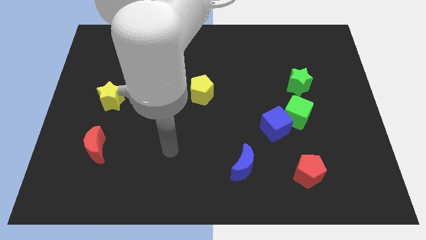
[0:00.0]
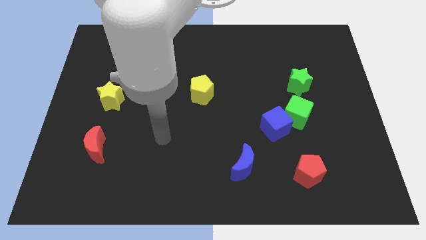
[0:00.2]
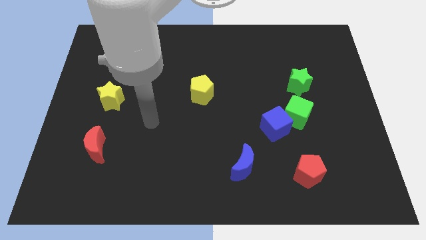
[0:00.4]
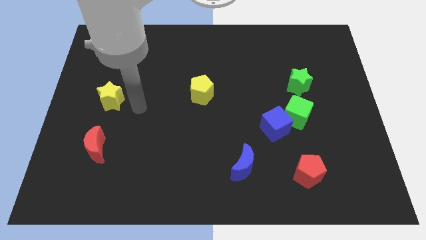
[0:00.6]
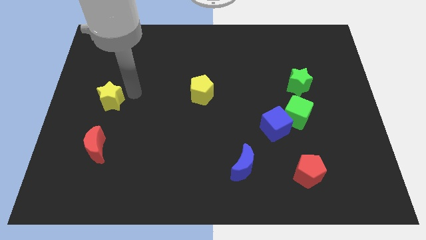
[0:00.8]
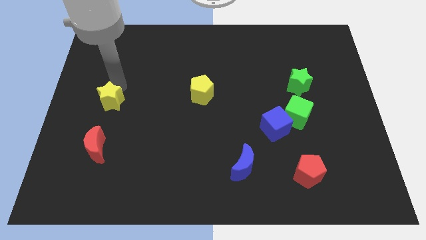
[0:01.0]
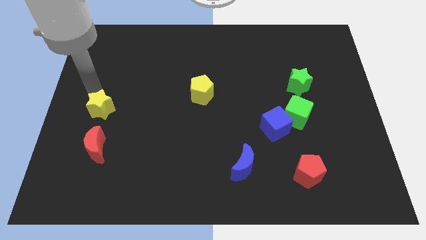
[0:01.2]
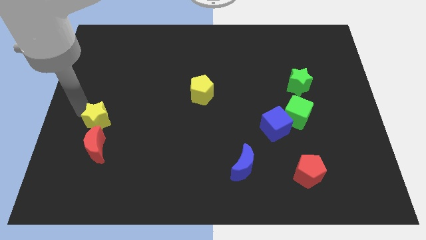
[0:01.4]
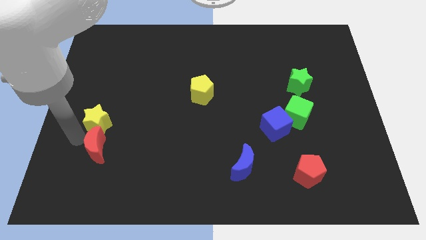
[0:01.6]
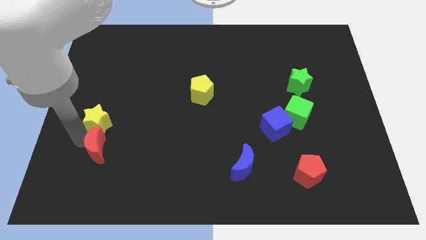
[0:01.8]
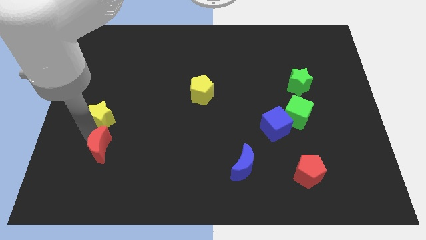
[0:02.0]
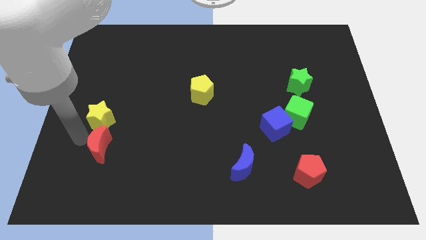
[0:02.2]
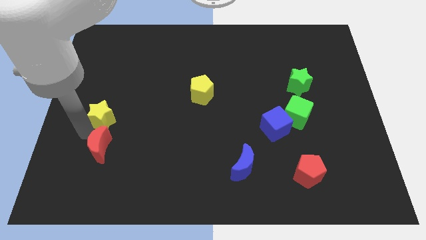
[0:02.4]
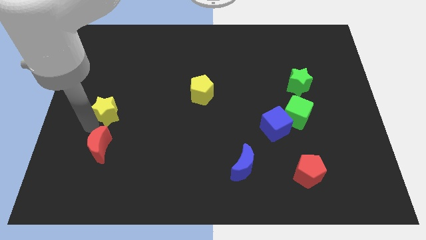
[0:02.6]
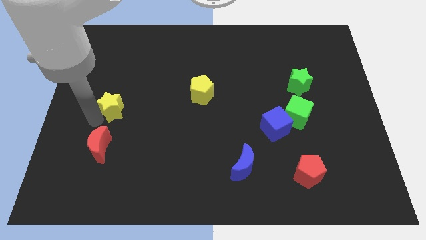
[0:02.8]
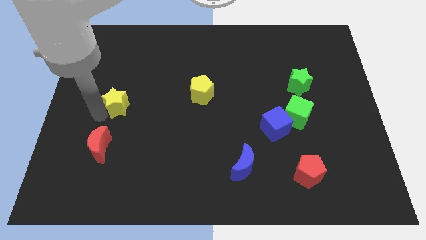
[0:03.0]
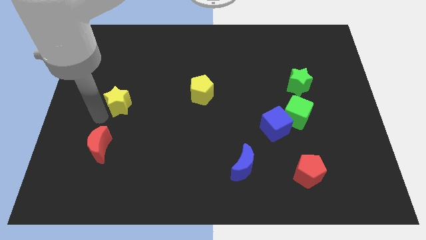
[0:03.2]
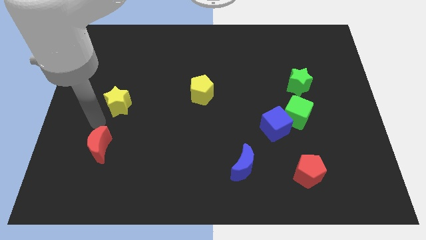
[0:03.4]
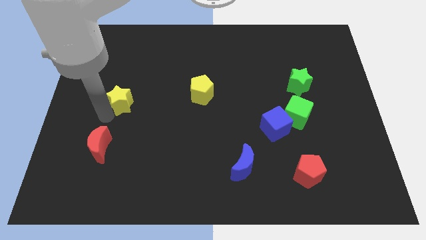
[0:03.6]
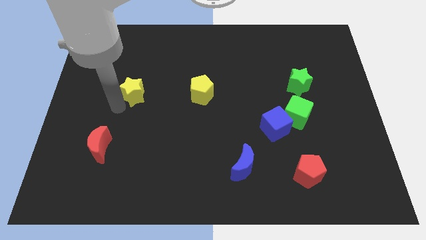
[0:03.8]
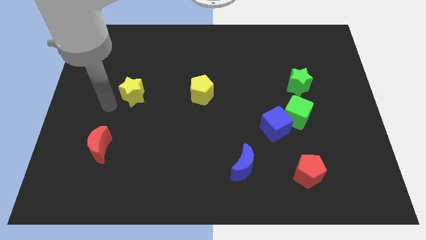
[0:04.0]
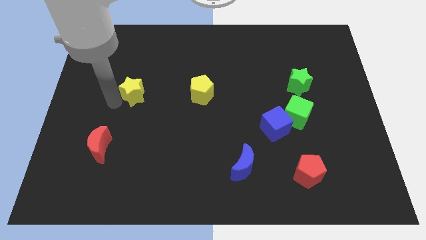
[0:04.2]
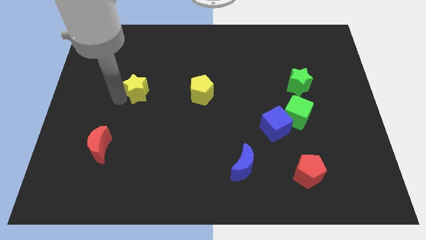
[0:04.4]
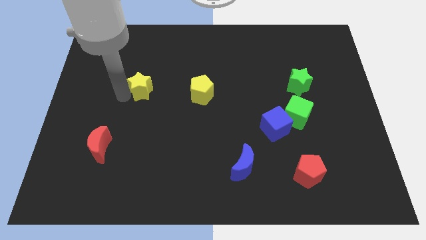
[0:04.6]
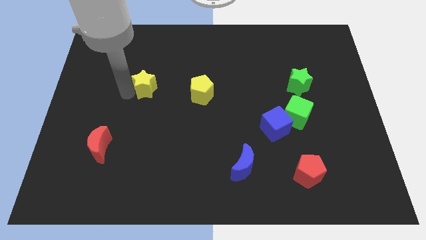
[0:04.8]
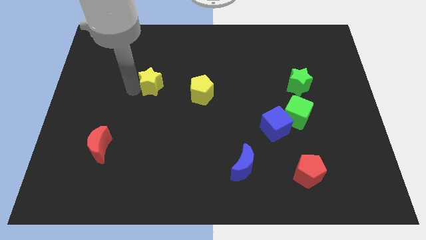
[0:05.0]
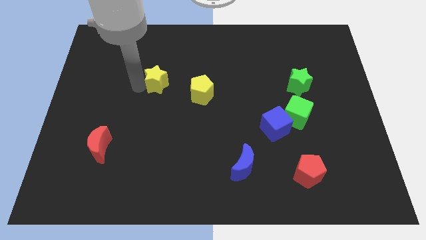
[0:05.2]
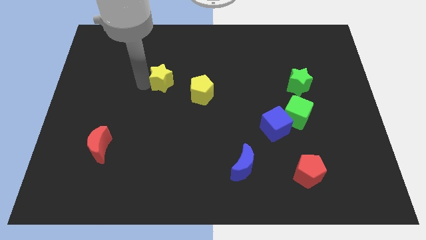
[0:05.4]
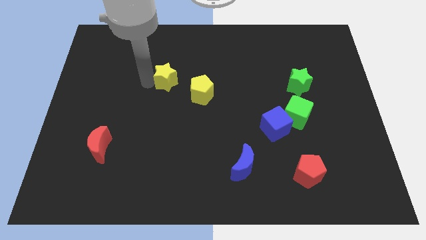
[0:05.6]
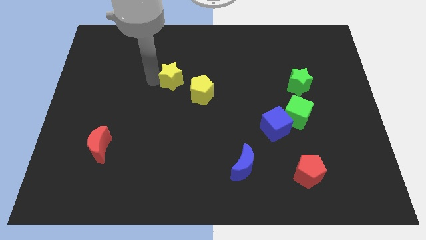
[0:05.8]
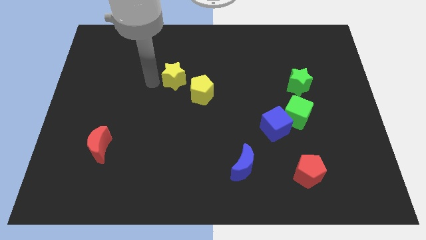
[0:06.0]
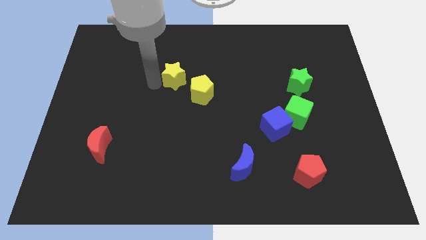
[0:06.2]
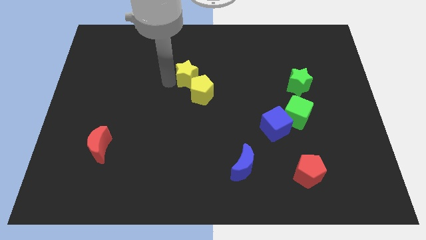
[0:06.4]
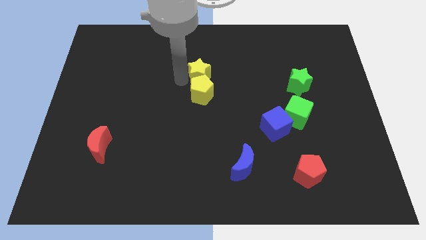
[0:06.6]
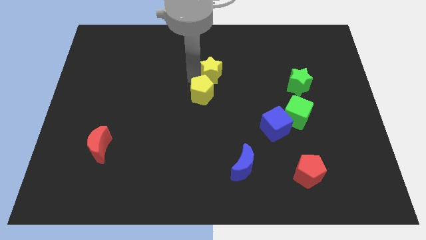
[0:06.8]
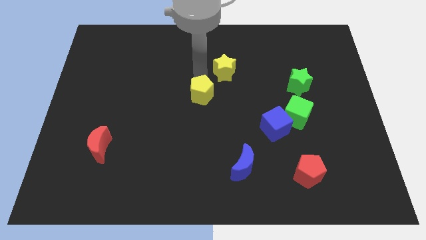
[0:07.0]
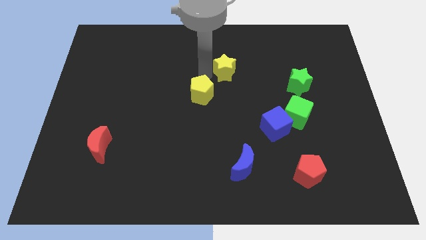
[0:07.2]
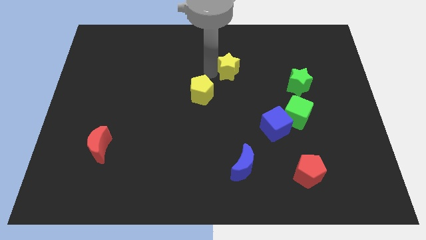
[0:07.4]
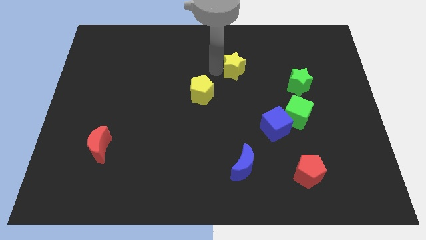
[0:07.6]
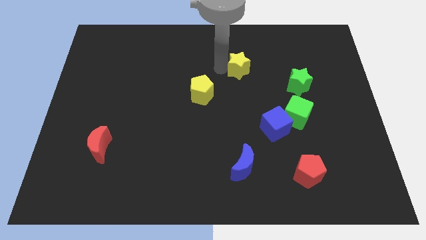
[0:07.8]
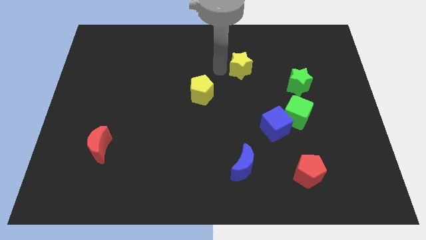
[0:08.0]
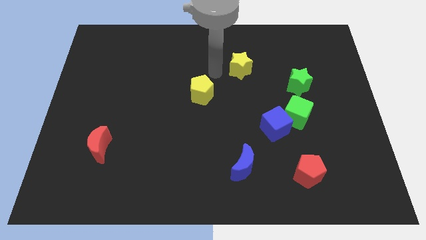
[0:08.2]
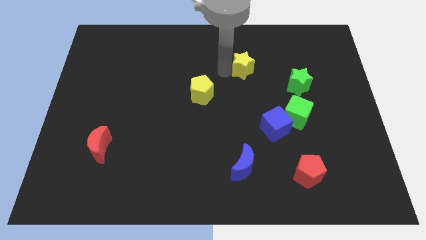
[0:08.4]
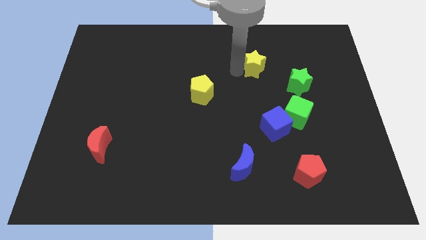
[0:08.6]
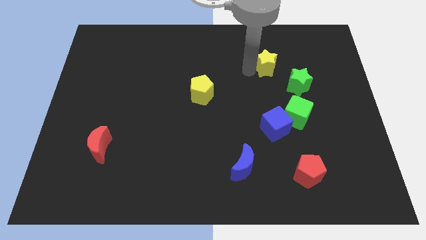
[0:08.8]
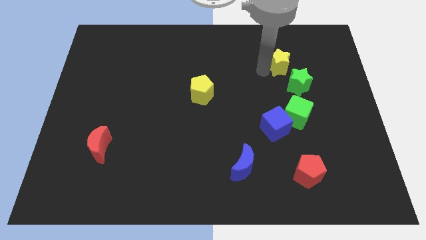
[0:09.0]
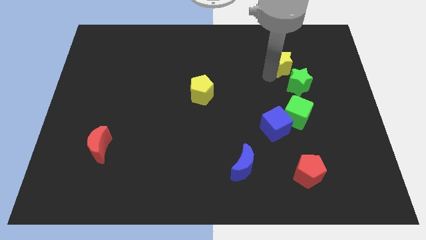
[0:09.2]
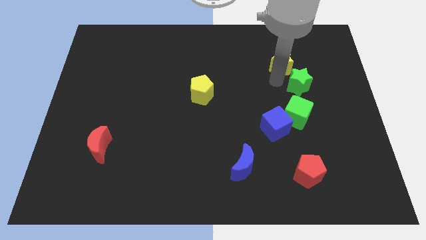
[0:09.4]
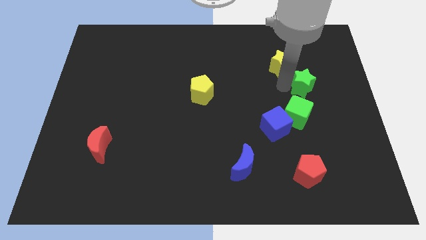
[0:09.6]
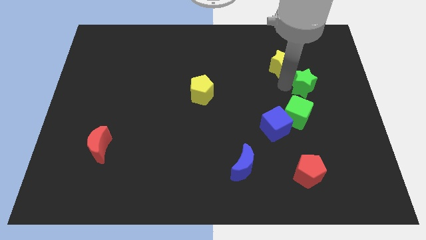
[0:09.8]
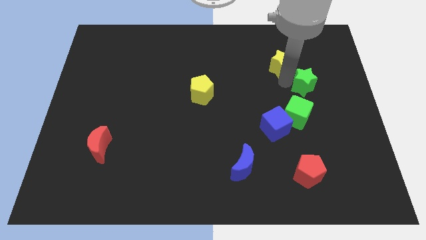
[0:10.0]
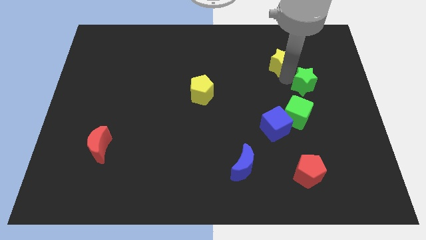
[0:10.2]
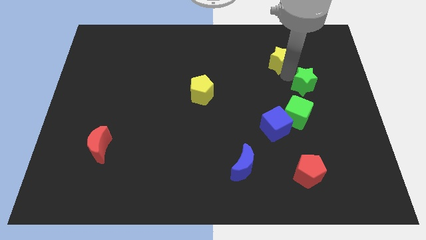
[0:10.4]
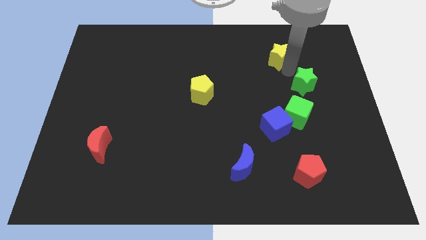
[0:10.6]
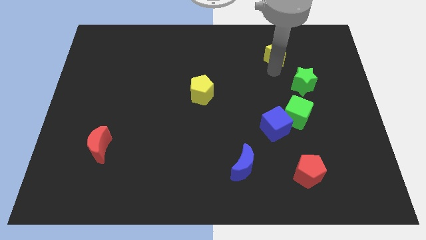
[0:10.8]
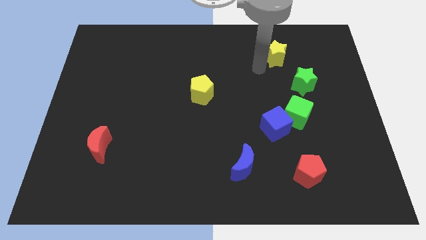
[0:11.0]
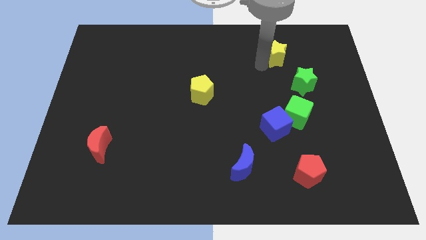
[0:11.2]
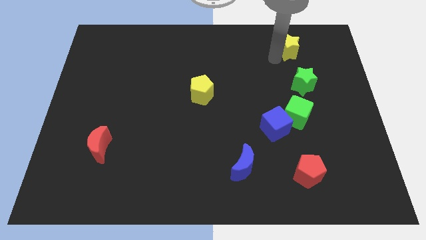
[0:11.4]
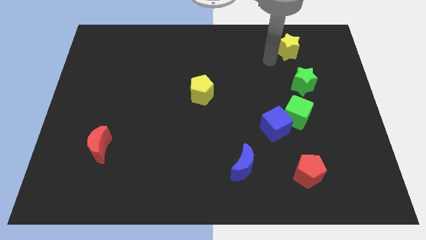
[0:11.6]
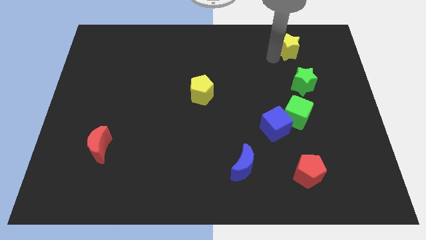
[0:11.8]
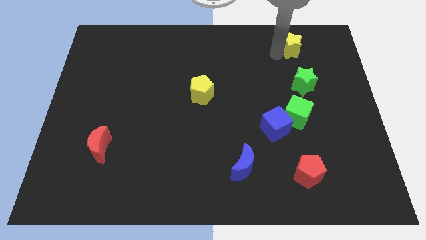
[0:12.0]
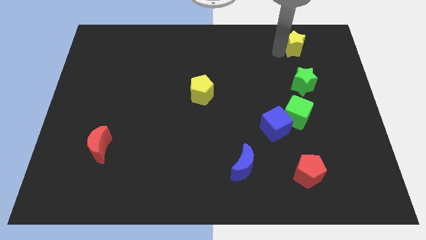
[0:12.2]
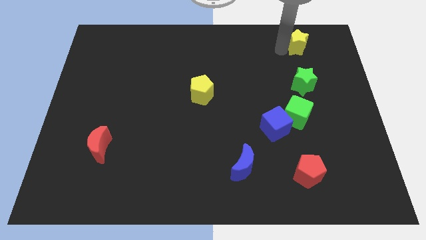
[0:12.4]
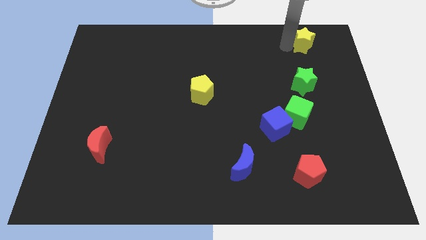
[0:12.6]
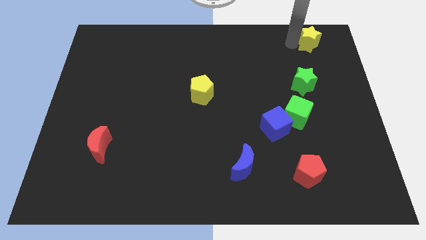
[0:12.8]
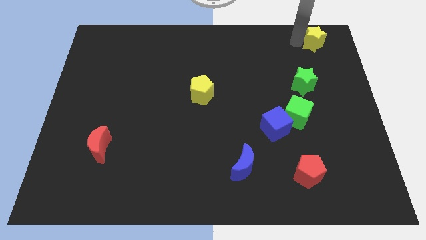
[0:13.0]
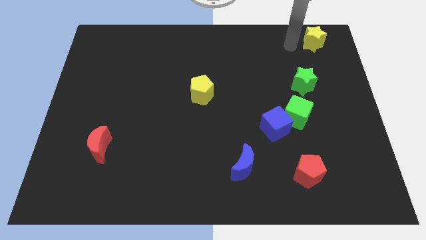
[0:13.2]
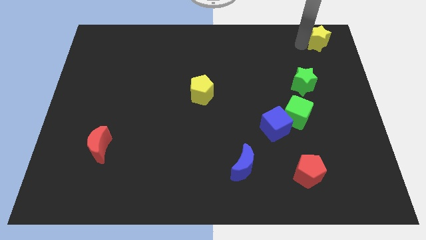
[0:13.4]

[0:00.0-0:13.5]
push the yellow star to the top right corner
